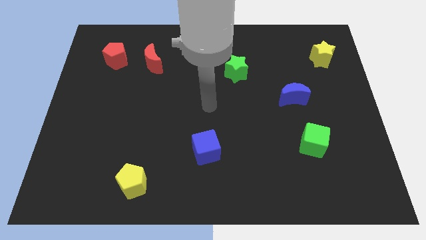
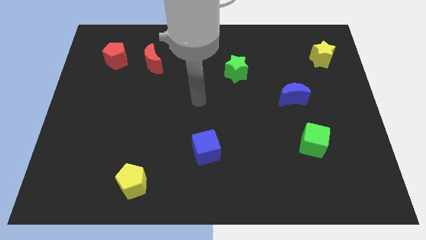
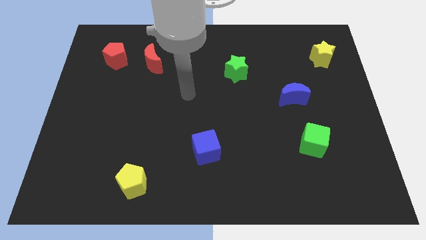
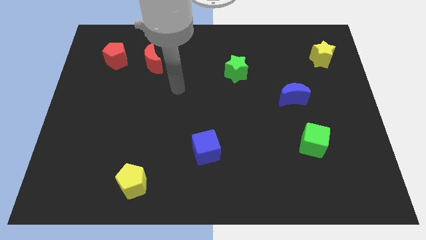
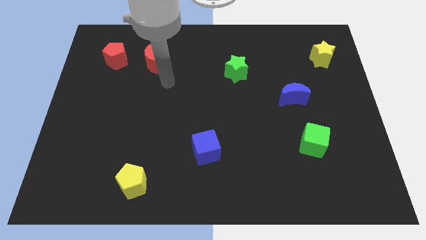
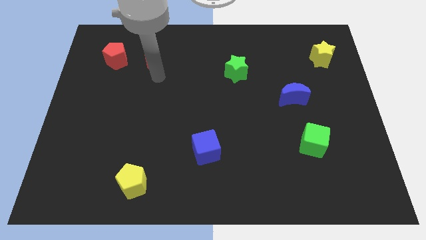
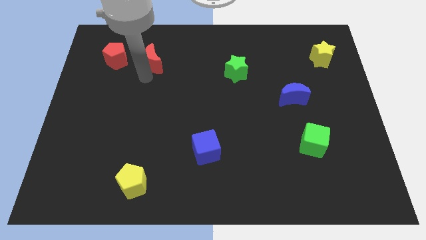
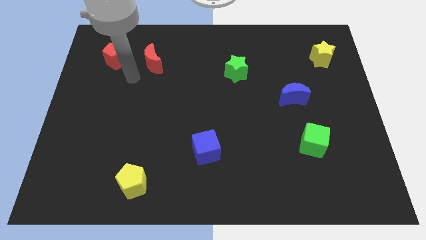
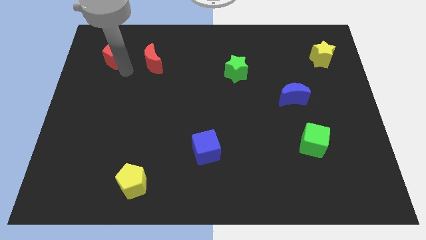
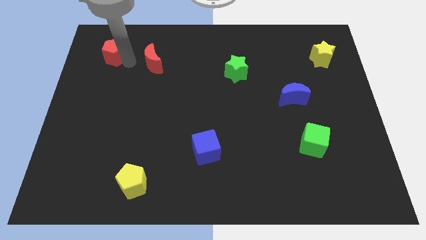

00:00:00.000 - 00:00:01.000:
move the red moon away from the red pentagon

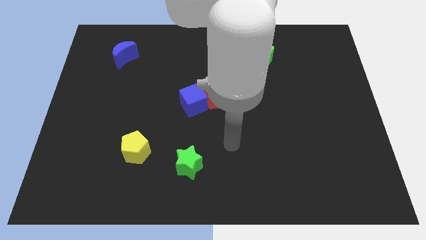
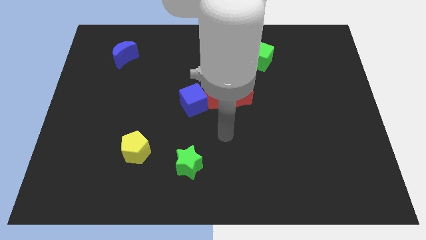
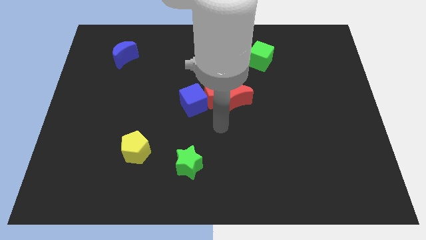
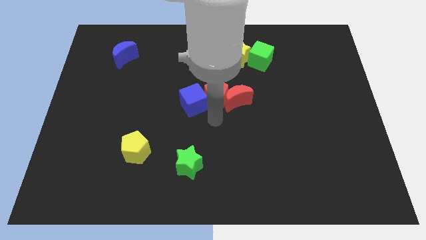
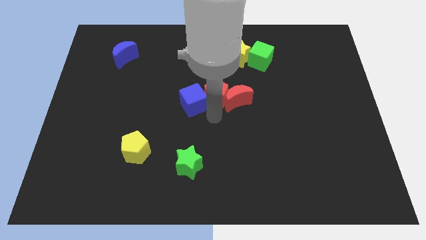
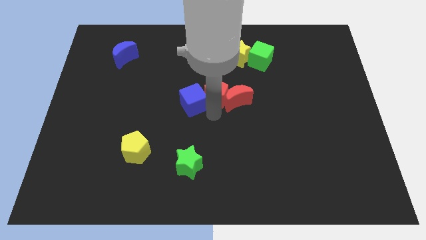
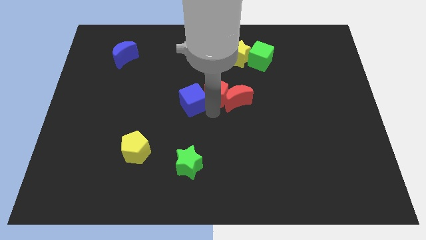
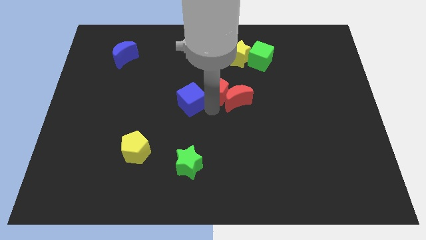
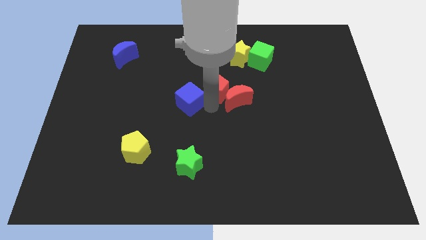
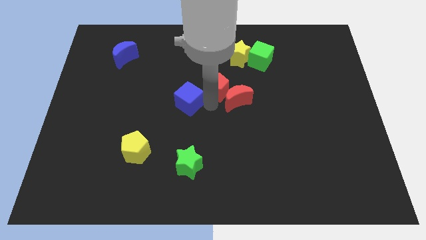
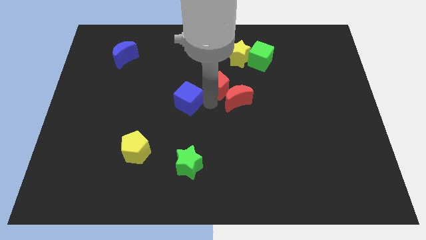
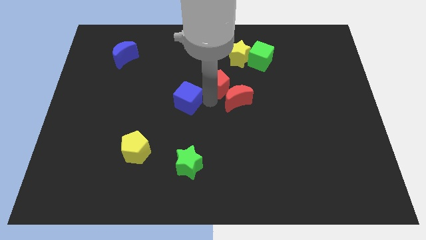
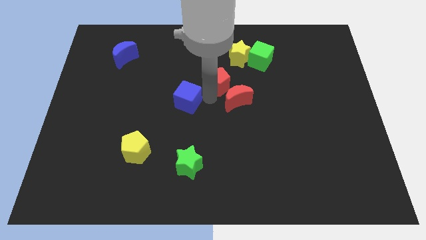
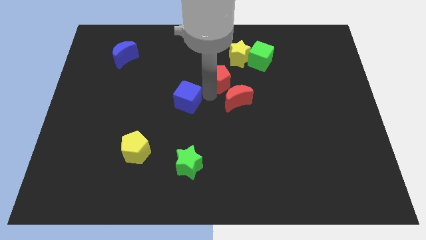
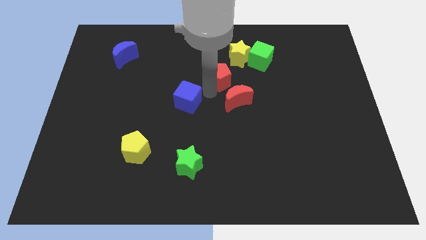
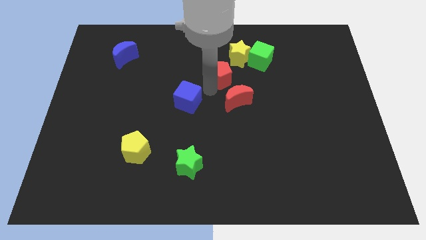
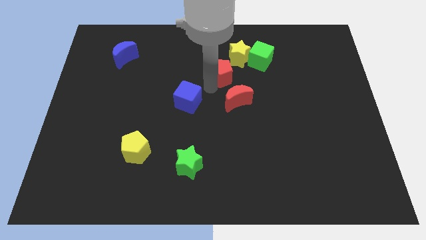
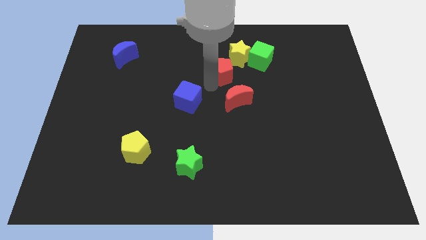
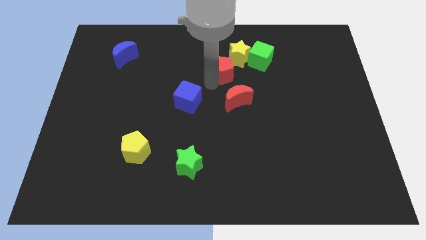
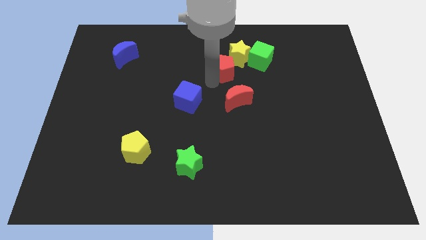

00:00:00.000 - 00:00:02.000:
separate the red pentagon from the red moon and blue cube

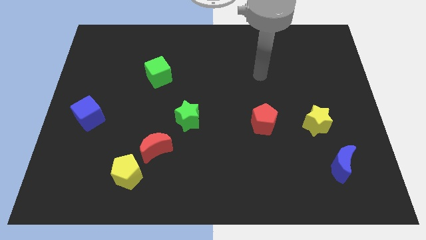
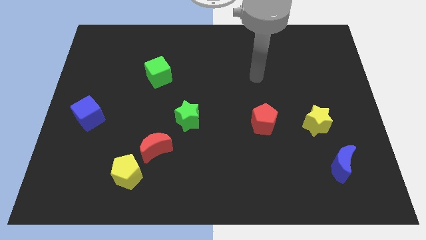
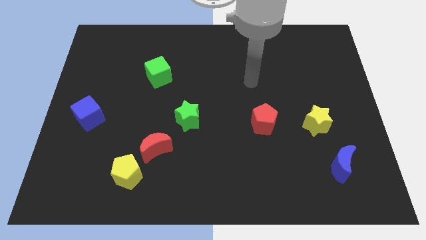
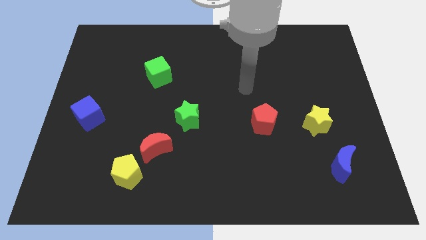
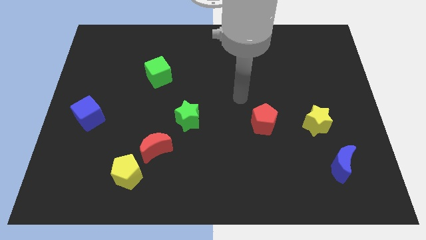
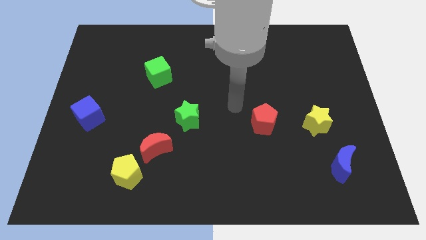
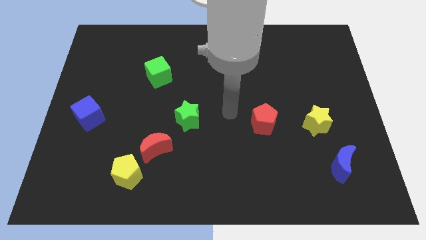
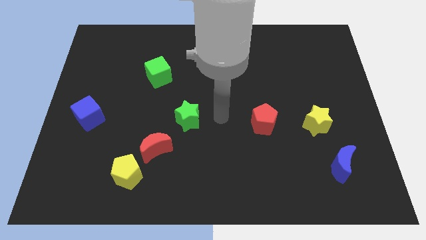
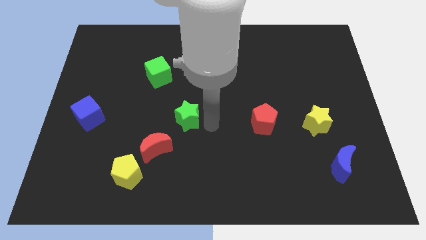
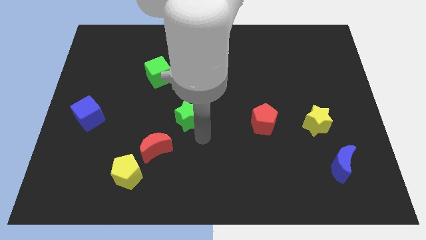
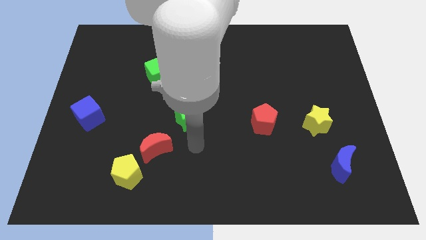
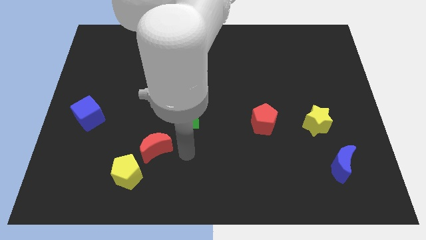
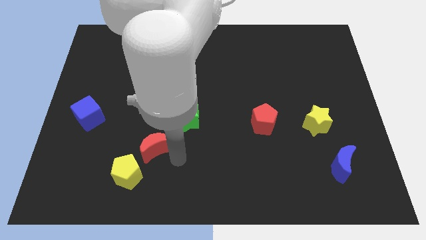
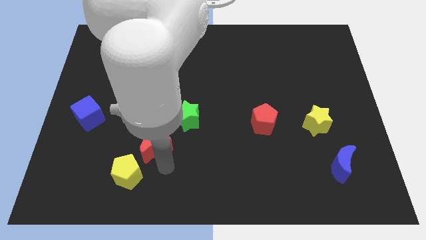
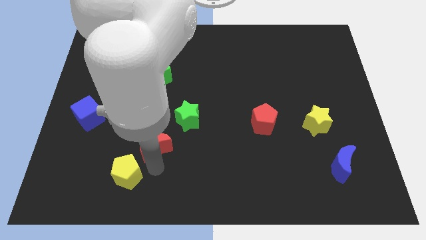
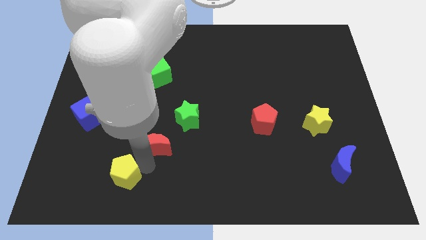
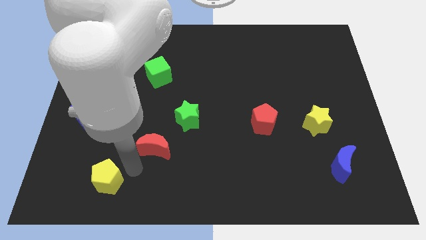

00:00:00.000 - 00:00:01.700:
pull the red moon apart from the yellow pentagon

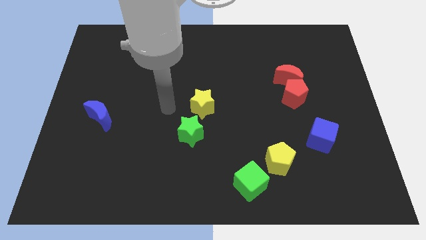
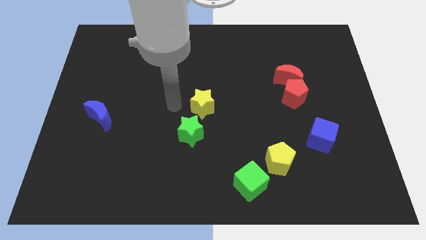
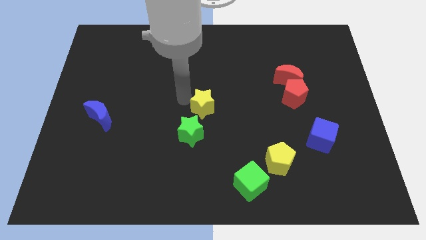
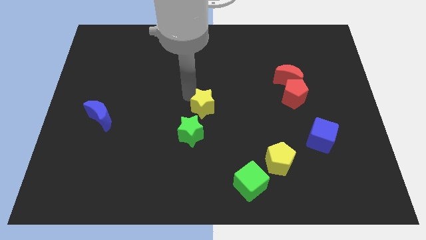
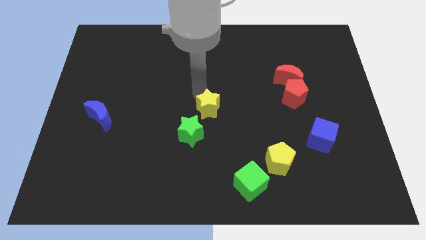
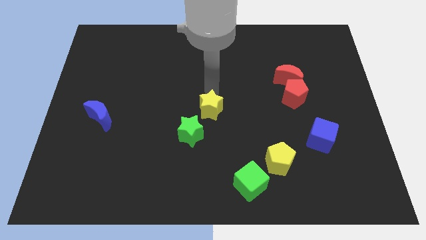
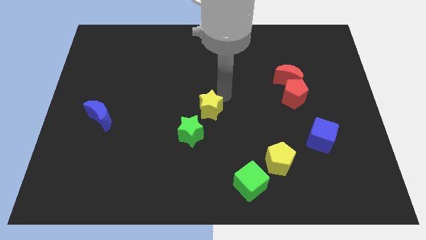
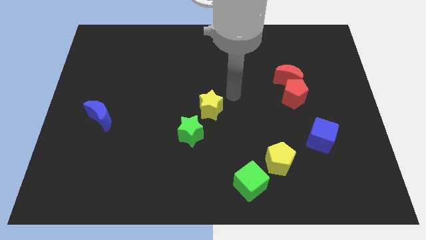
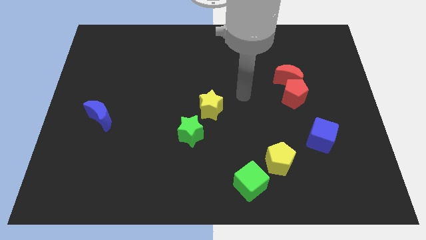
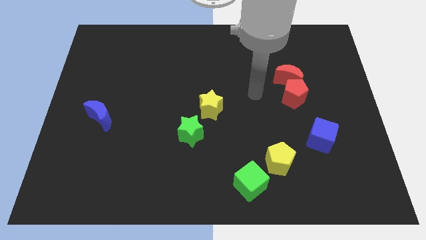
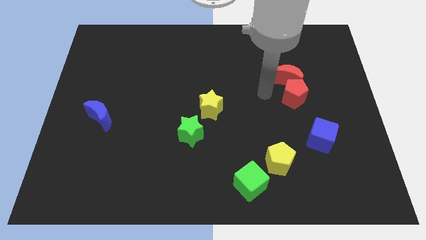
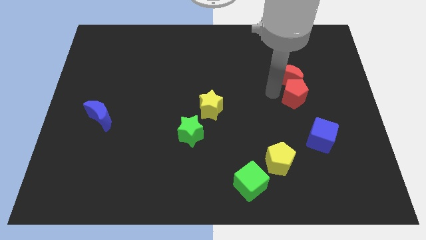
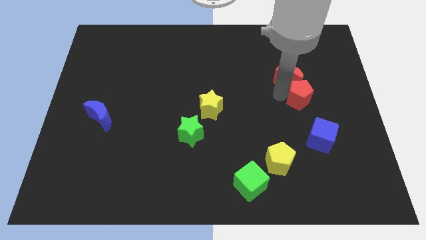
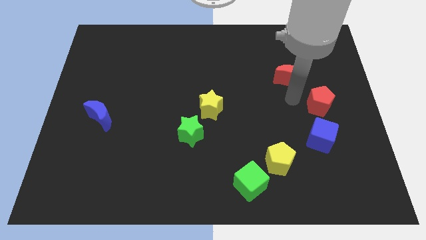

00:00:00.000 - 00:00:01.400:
separate the red moon from the red pentagon

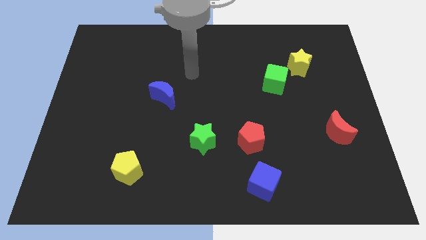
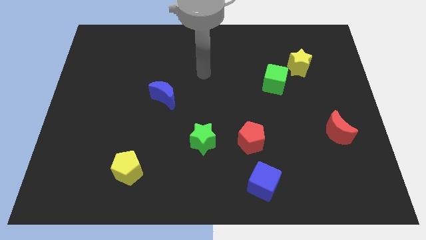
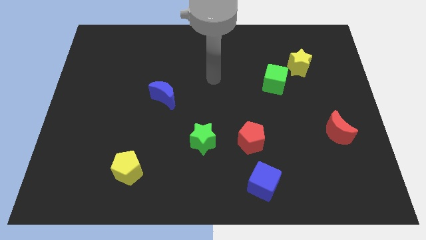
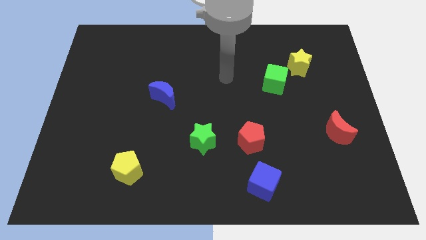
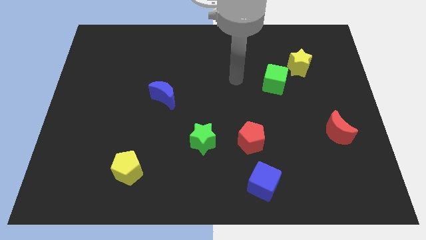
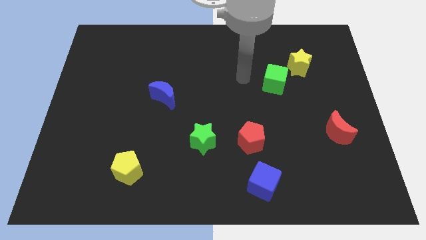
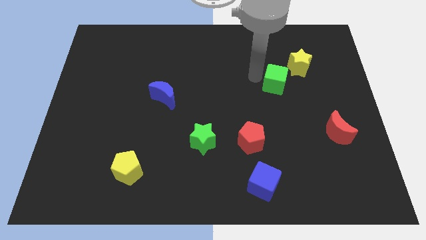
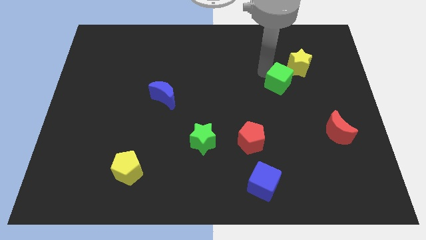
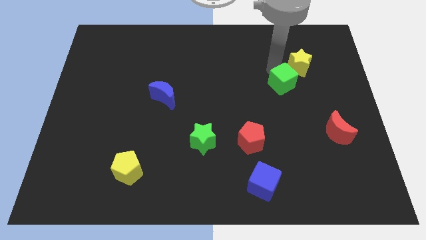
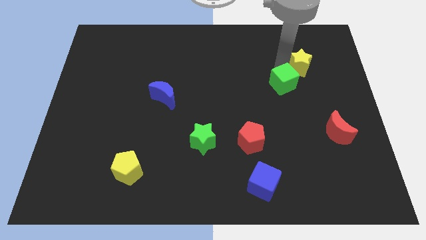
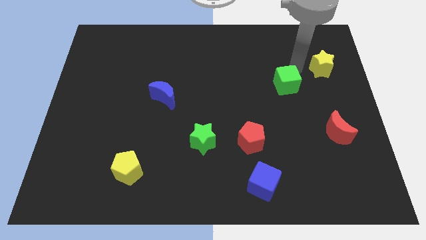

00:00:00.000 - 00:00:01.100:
separate the green cube from the yellow star

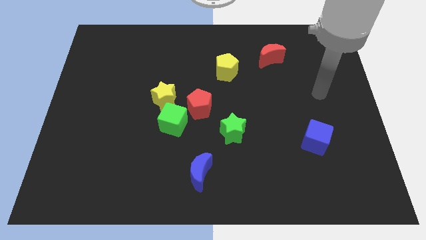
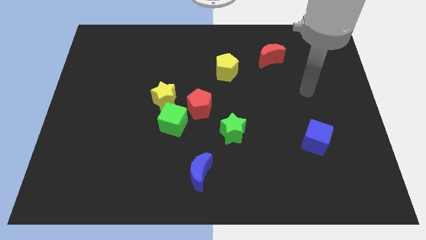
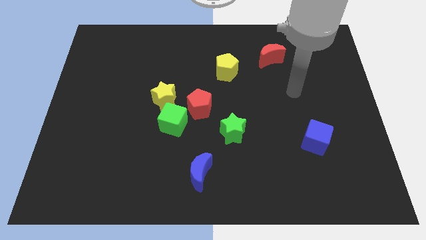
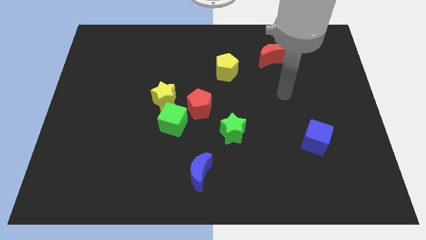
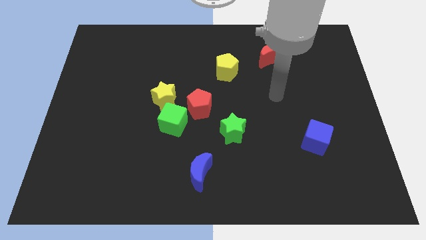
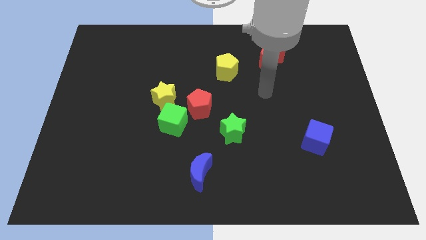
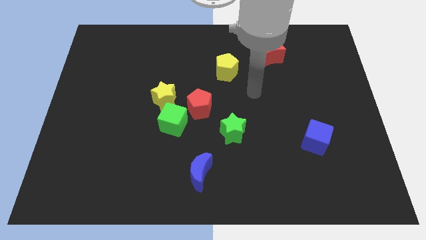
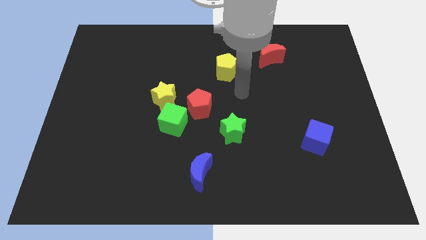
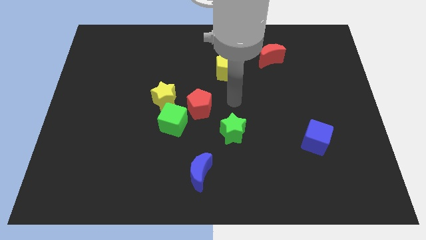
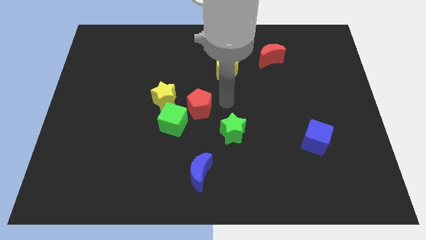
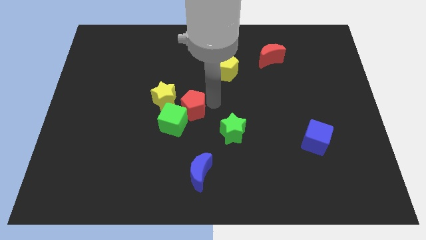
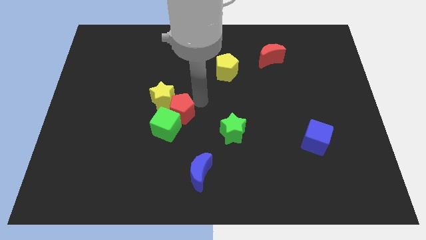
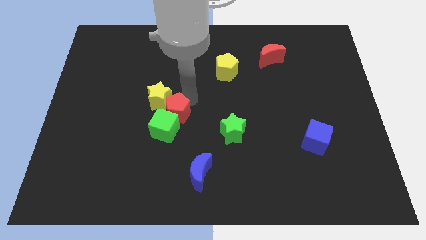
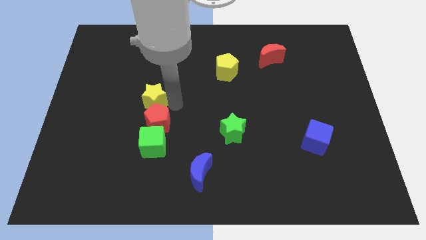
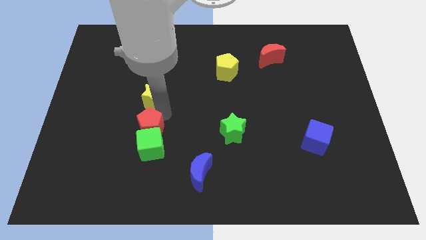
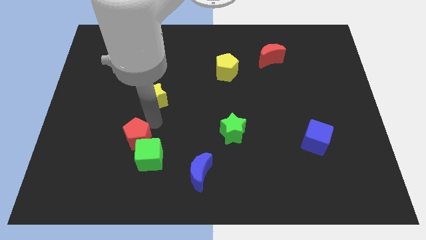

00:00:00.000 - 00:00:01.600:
pull the green cube apart from the red pentagon and yellow star

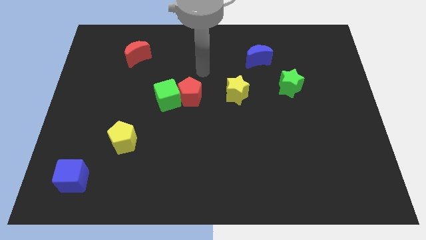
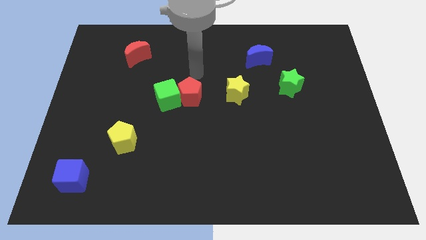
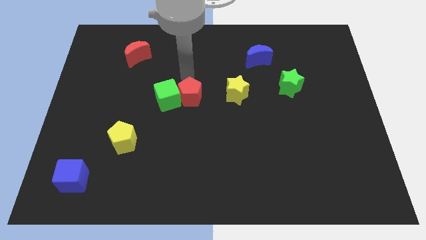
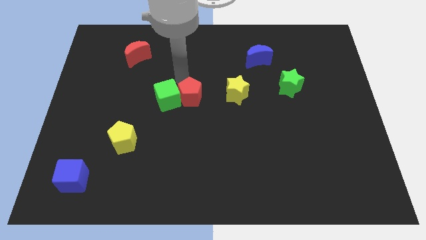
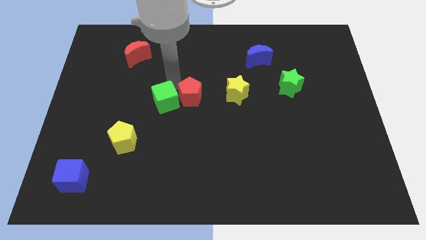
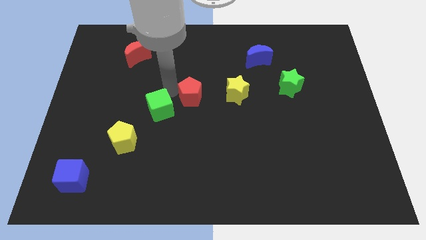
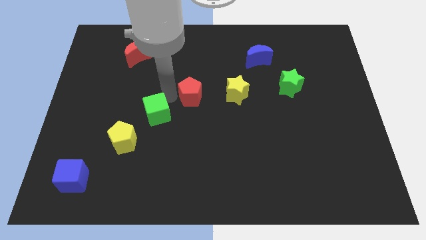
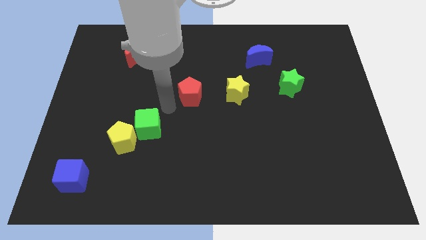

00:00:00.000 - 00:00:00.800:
separate the red pentagon from the green cube
